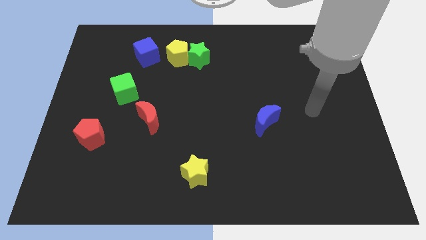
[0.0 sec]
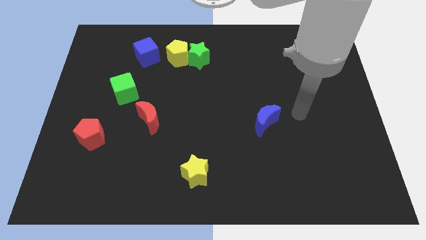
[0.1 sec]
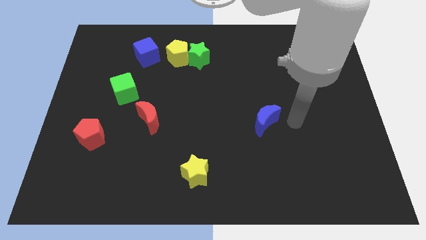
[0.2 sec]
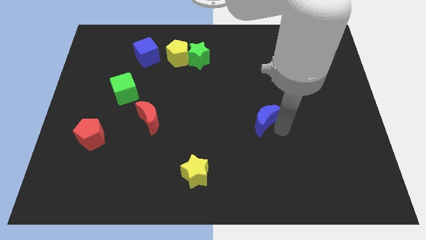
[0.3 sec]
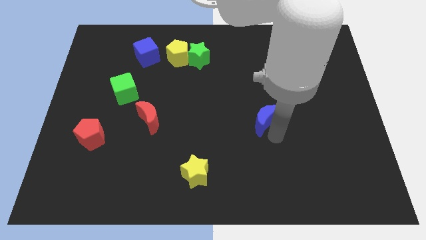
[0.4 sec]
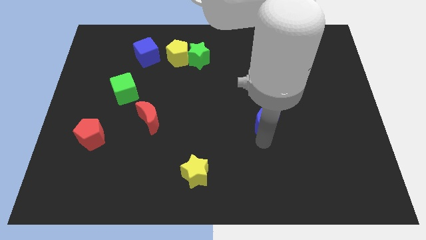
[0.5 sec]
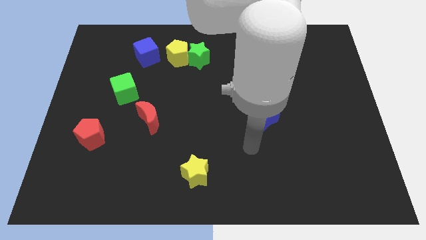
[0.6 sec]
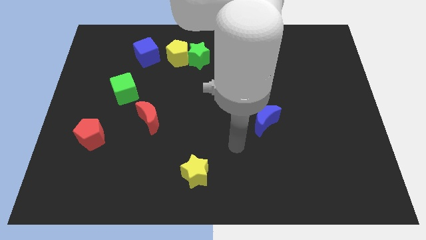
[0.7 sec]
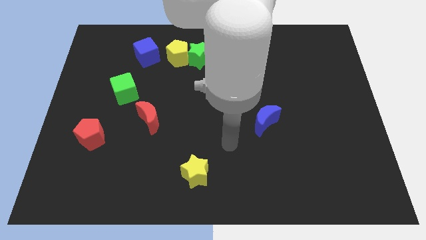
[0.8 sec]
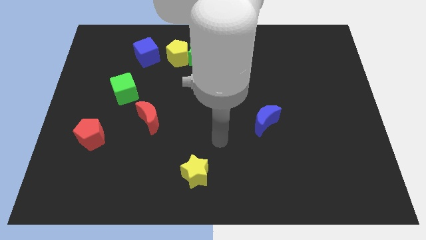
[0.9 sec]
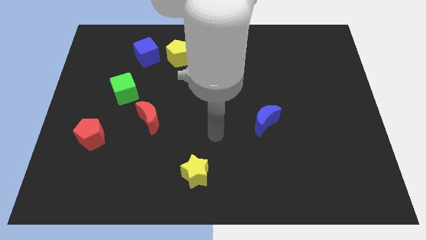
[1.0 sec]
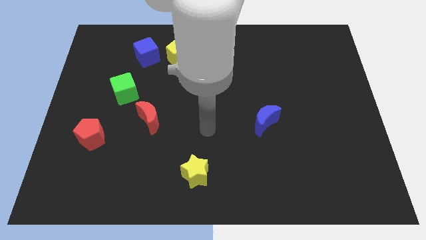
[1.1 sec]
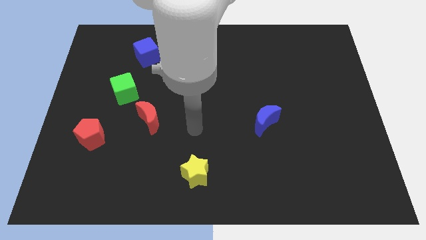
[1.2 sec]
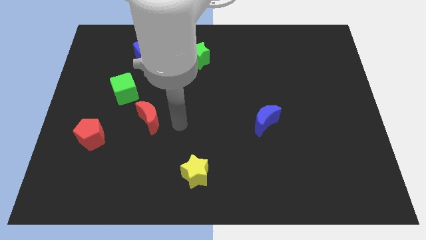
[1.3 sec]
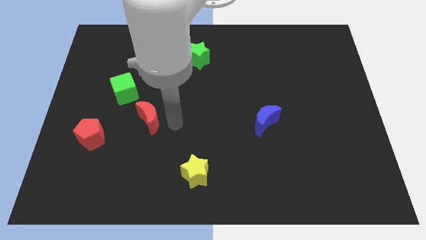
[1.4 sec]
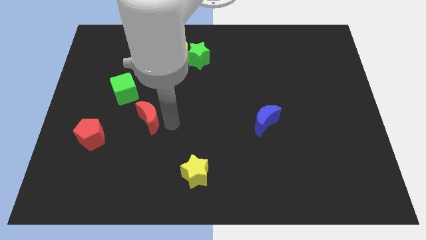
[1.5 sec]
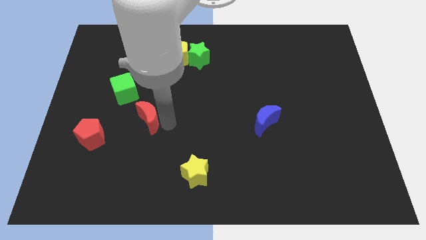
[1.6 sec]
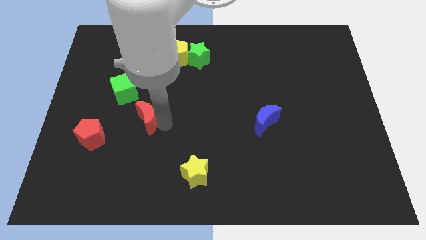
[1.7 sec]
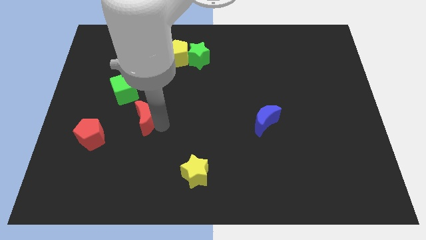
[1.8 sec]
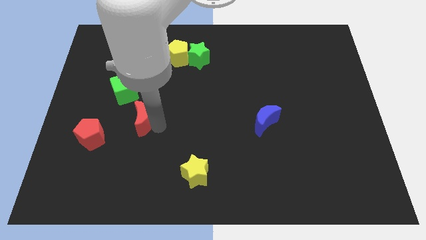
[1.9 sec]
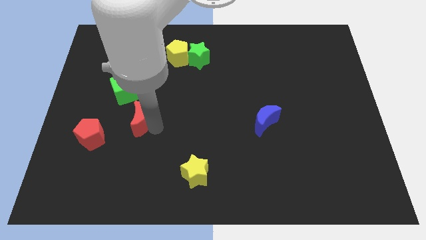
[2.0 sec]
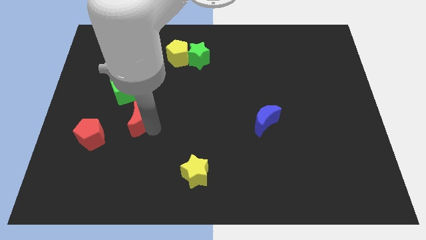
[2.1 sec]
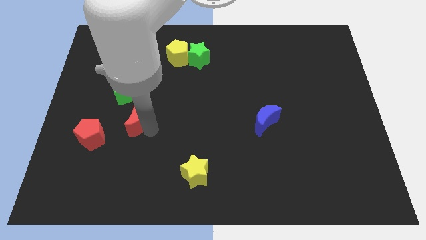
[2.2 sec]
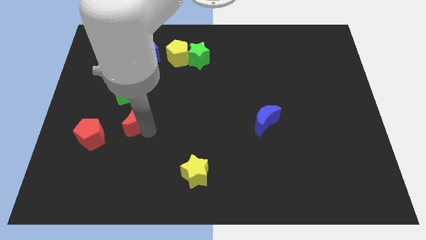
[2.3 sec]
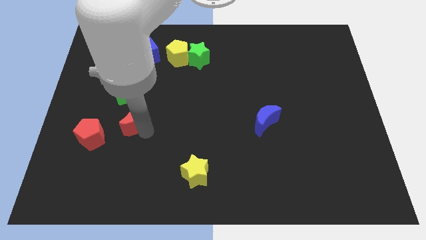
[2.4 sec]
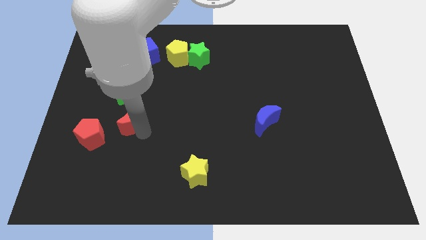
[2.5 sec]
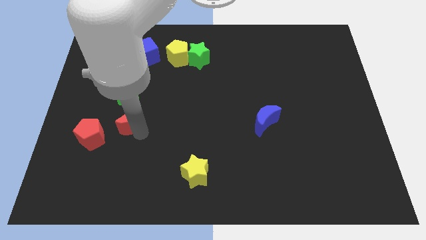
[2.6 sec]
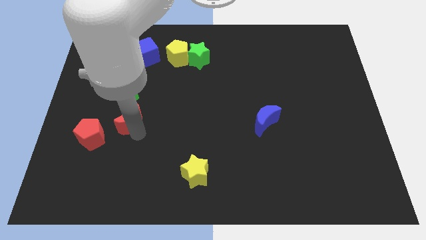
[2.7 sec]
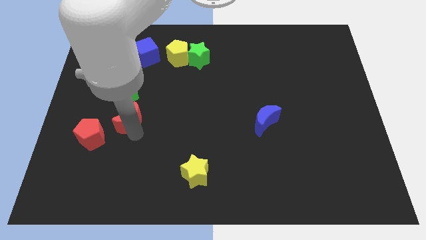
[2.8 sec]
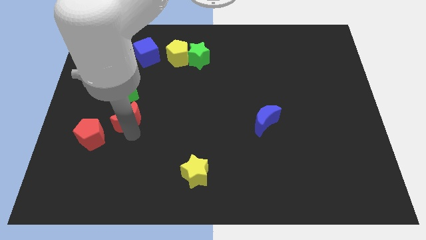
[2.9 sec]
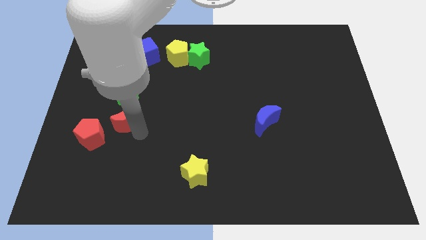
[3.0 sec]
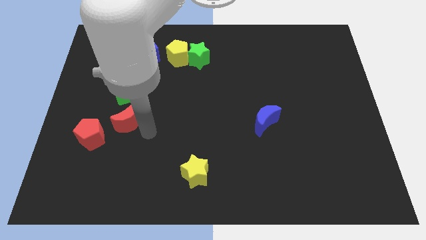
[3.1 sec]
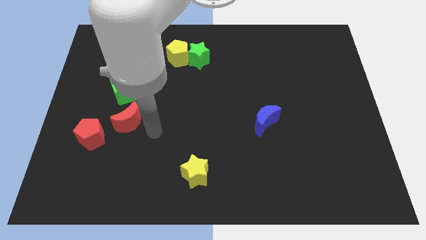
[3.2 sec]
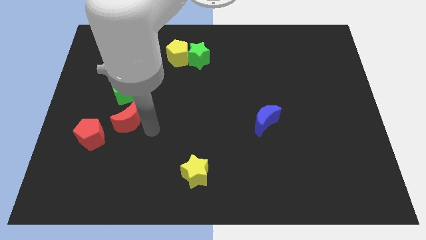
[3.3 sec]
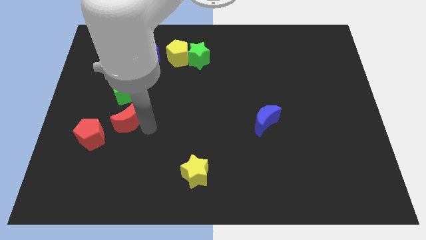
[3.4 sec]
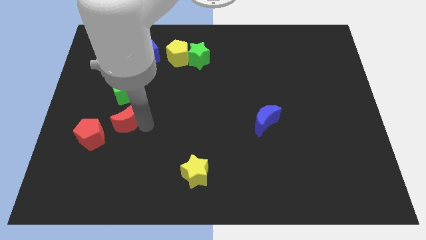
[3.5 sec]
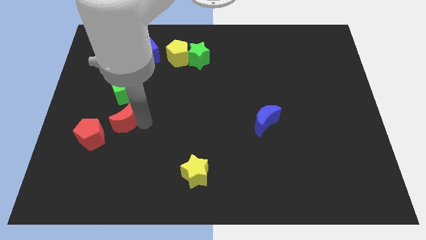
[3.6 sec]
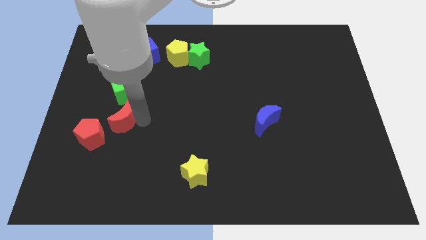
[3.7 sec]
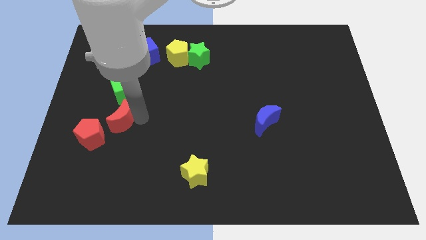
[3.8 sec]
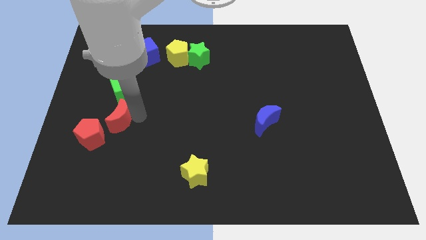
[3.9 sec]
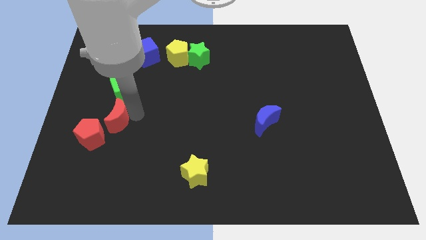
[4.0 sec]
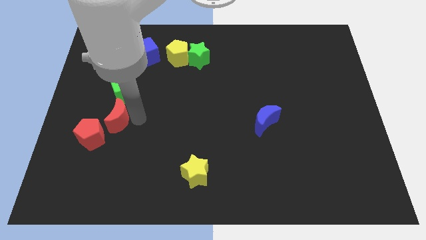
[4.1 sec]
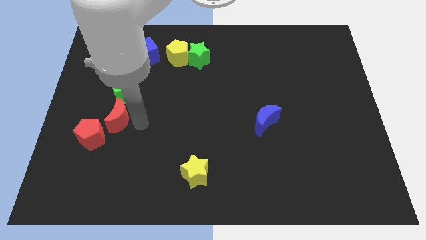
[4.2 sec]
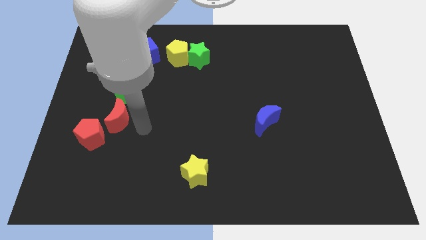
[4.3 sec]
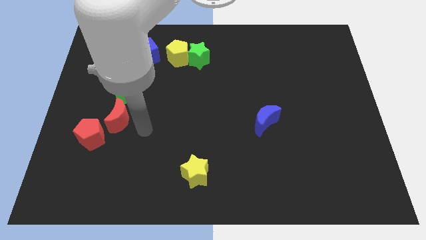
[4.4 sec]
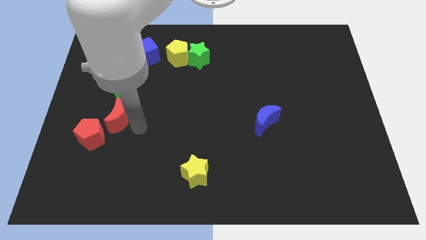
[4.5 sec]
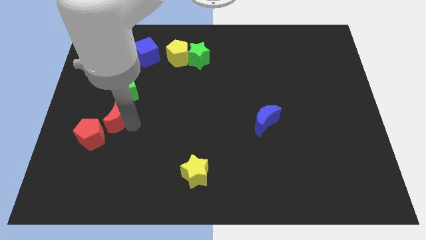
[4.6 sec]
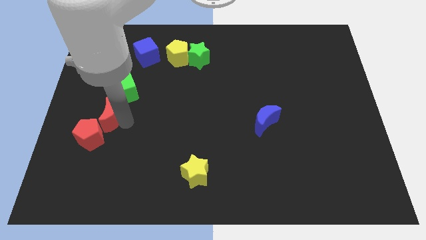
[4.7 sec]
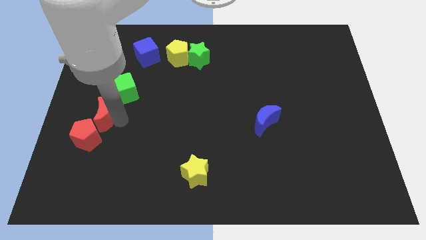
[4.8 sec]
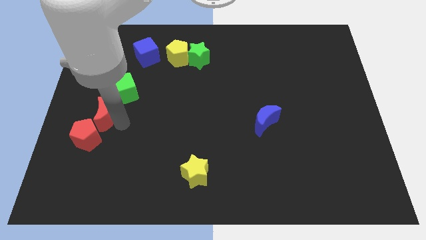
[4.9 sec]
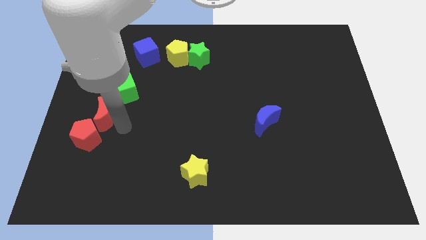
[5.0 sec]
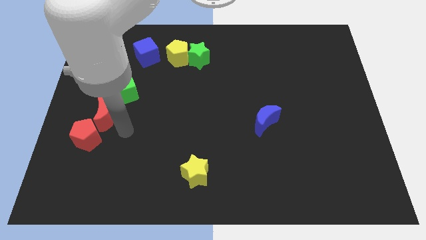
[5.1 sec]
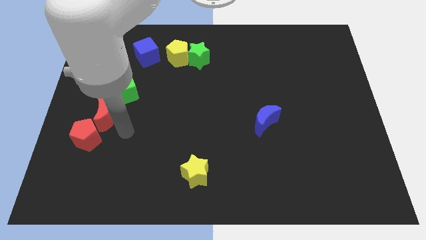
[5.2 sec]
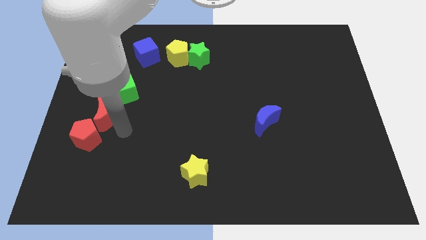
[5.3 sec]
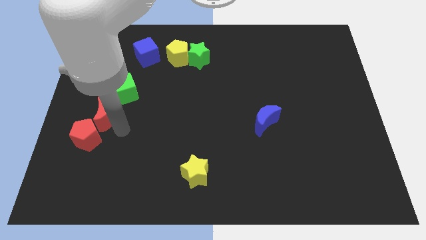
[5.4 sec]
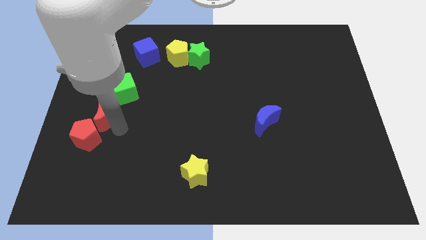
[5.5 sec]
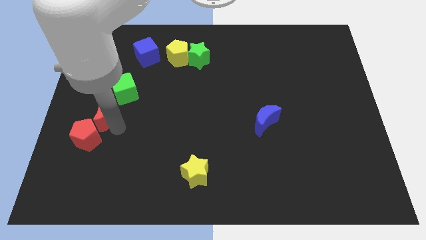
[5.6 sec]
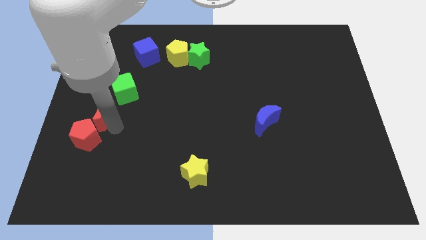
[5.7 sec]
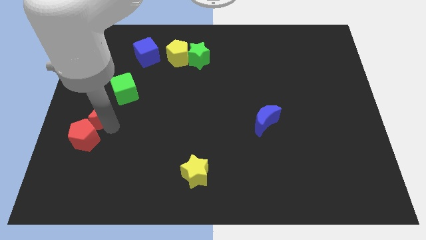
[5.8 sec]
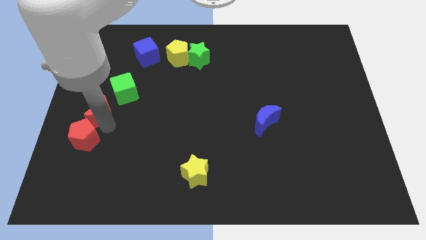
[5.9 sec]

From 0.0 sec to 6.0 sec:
push the red moon to the center left
